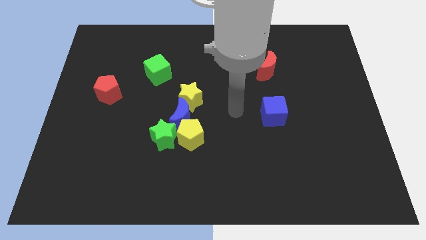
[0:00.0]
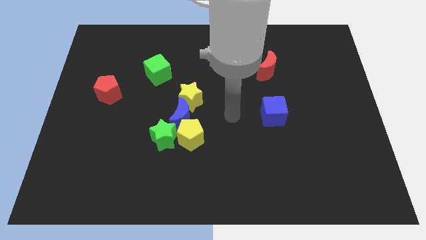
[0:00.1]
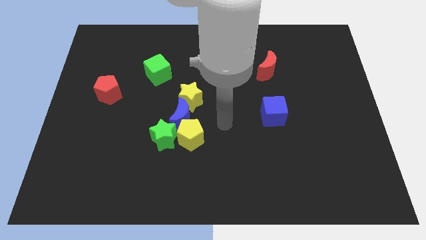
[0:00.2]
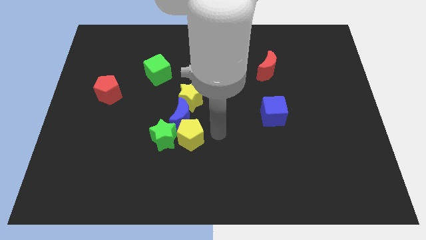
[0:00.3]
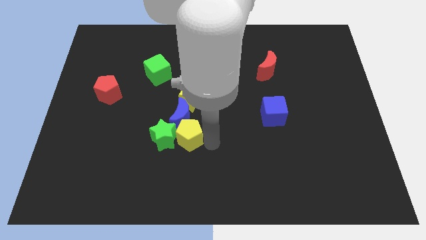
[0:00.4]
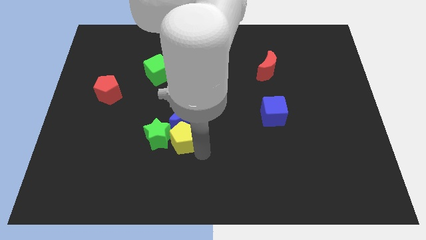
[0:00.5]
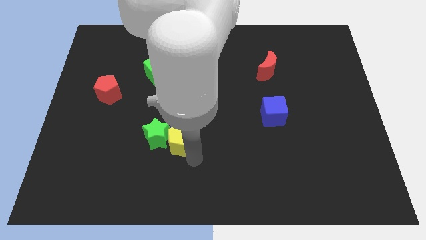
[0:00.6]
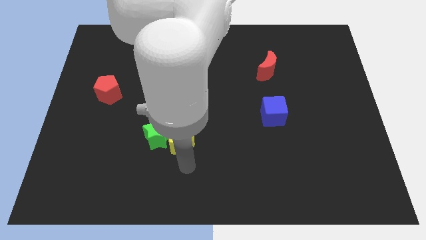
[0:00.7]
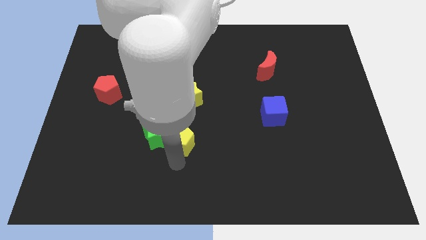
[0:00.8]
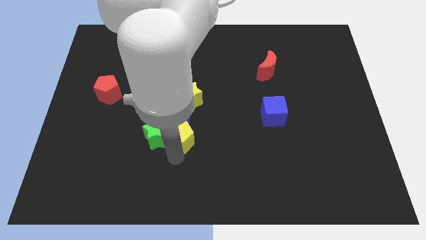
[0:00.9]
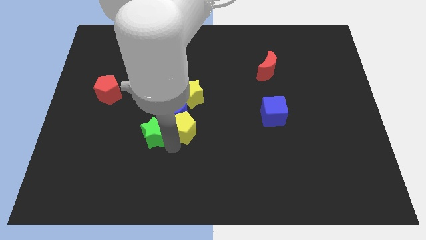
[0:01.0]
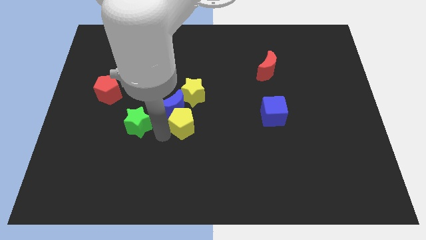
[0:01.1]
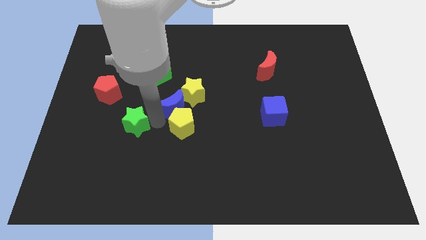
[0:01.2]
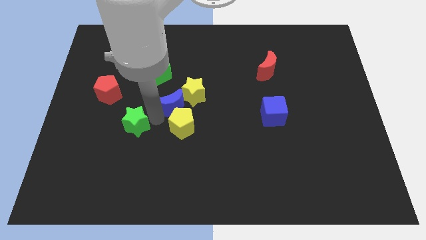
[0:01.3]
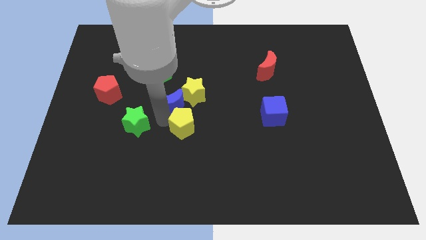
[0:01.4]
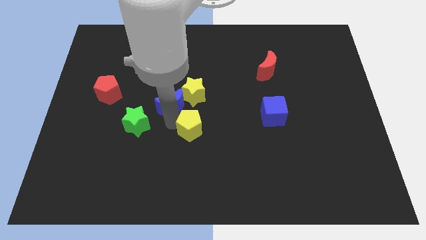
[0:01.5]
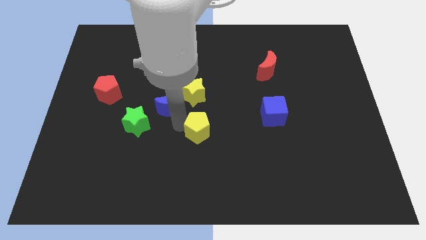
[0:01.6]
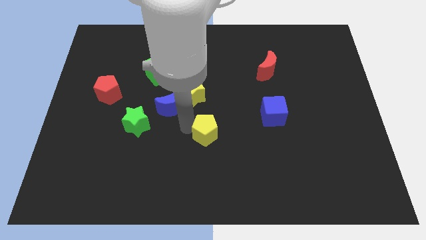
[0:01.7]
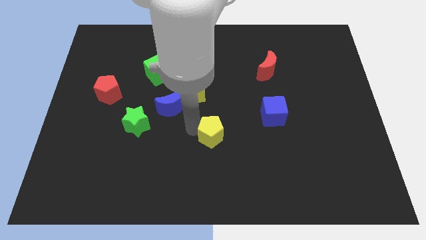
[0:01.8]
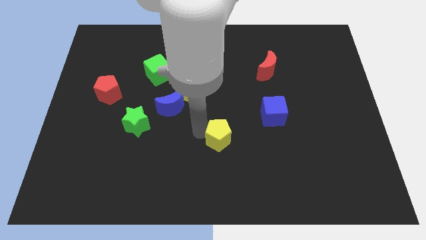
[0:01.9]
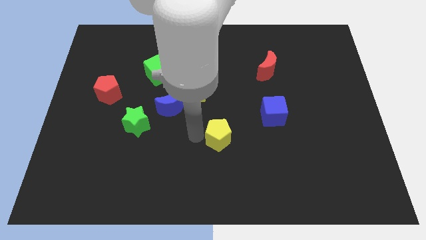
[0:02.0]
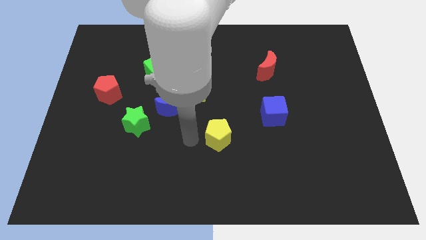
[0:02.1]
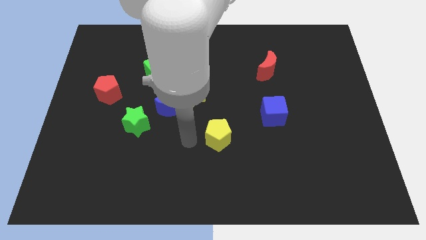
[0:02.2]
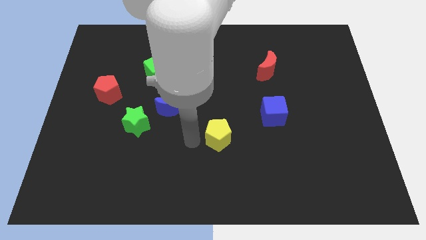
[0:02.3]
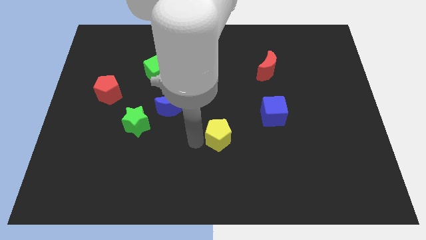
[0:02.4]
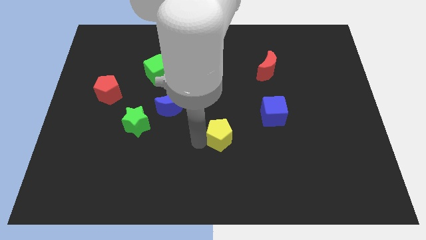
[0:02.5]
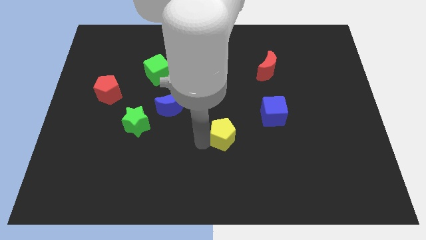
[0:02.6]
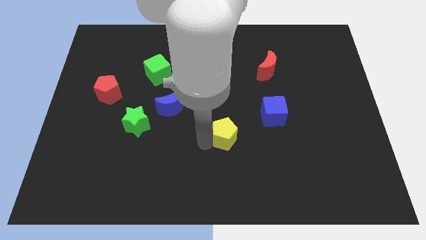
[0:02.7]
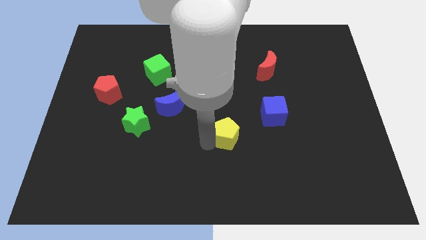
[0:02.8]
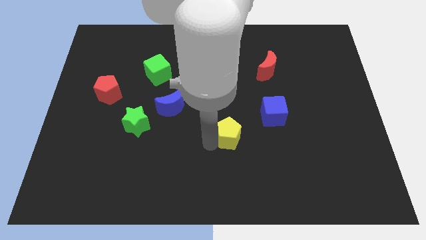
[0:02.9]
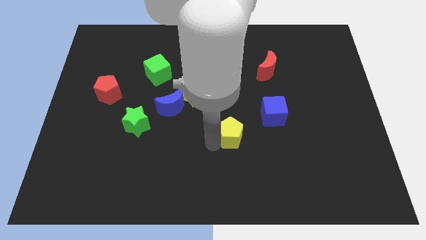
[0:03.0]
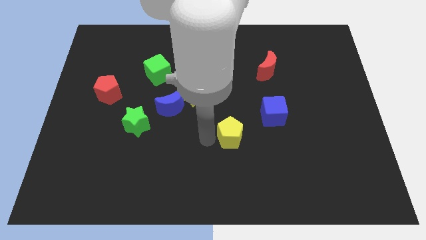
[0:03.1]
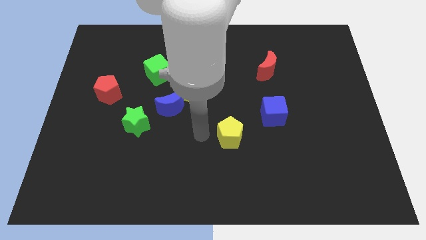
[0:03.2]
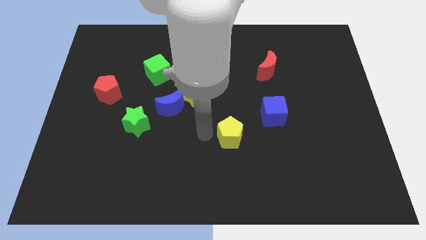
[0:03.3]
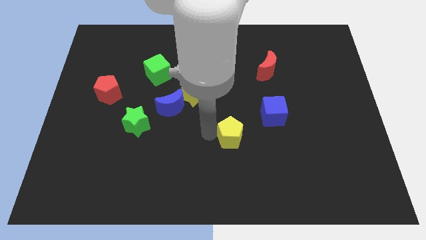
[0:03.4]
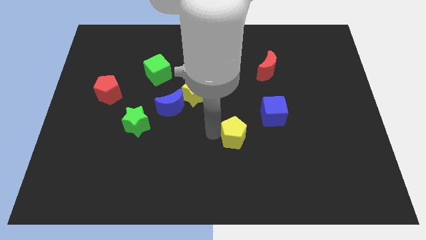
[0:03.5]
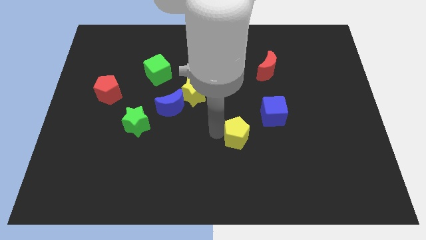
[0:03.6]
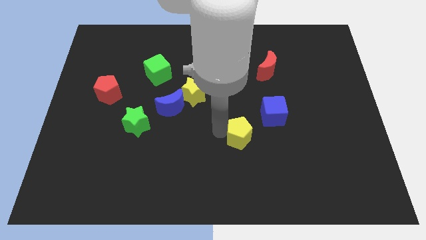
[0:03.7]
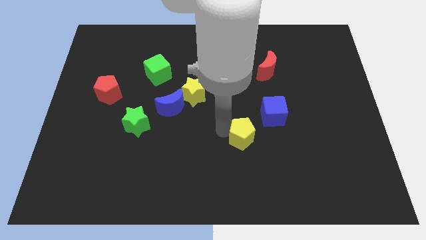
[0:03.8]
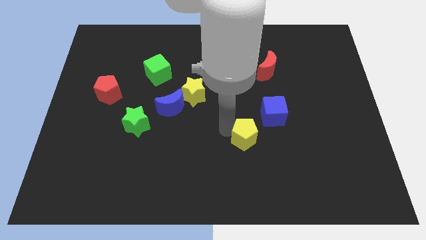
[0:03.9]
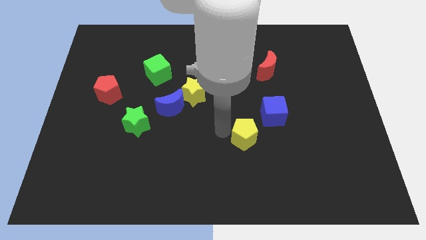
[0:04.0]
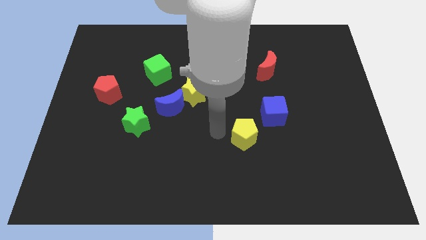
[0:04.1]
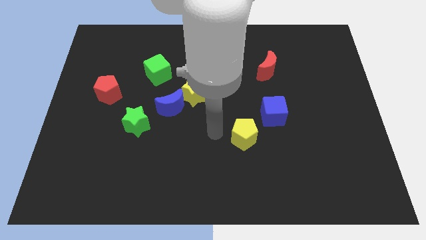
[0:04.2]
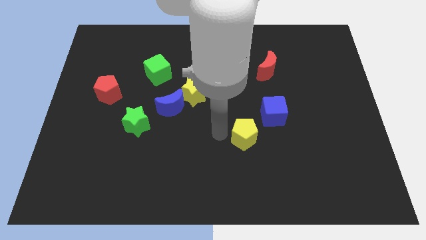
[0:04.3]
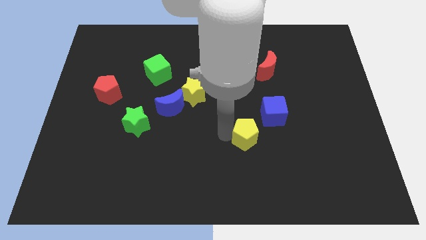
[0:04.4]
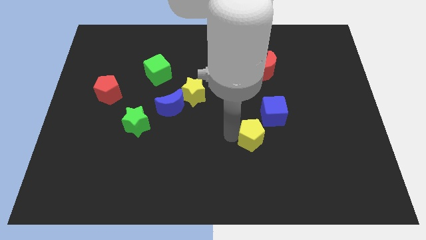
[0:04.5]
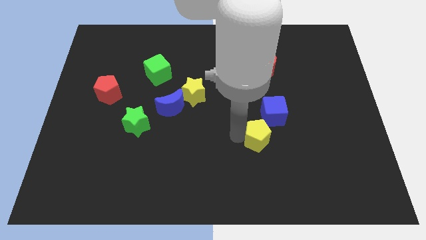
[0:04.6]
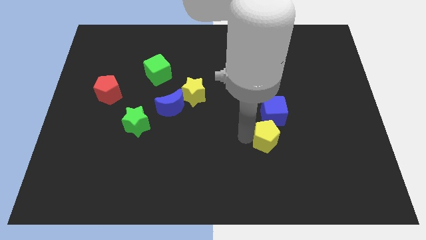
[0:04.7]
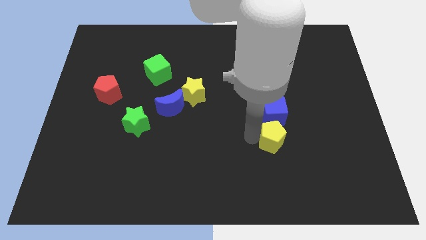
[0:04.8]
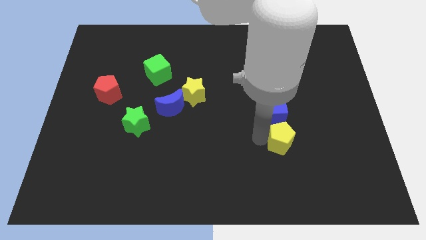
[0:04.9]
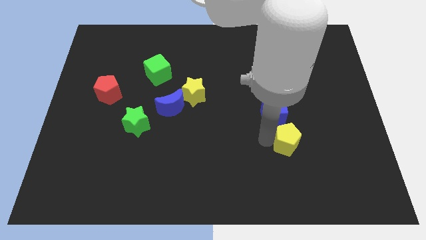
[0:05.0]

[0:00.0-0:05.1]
push the yellow pentagon to the right

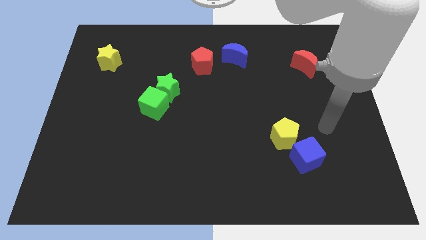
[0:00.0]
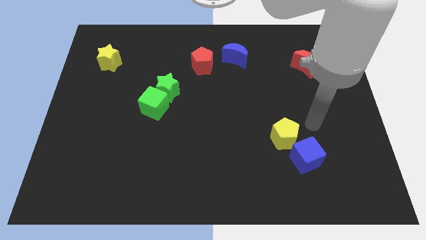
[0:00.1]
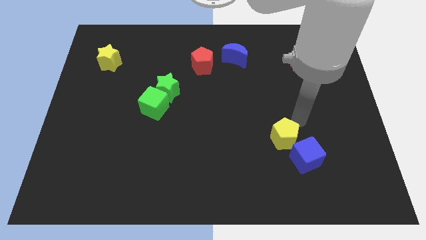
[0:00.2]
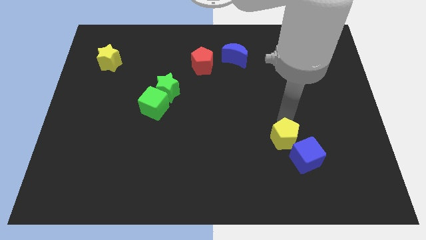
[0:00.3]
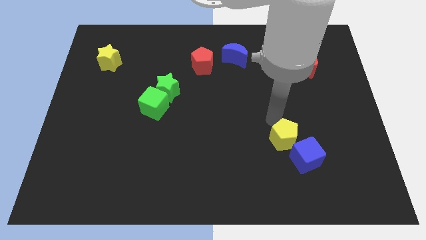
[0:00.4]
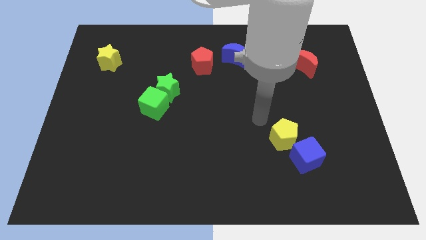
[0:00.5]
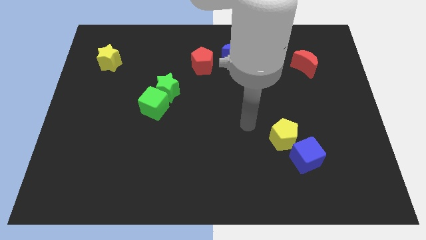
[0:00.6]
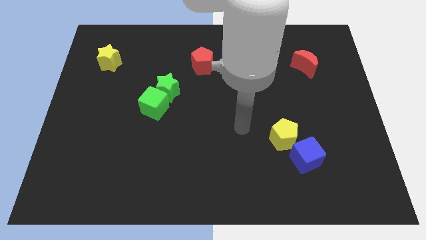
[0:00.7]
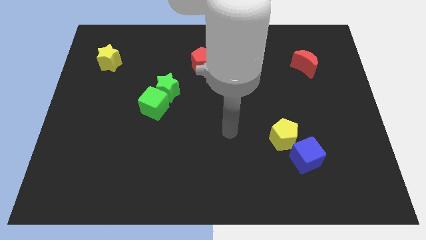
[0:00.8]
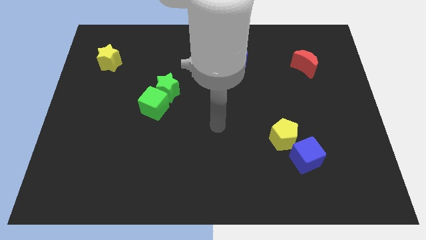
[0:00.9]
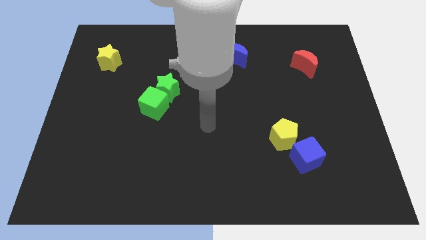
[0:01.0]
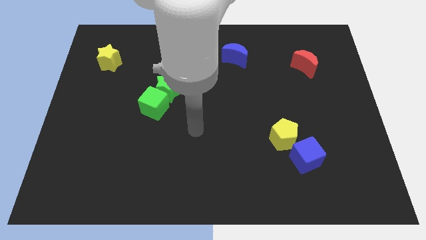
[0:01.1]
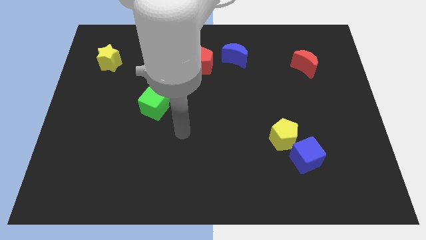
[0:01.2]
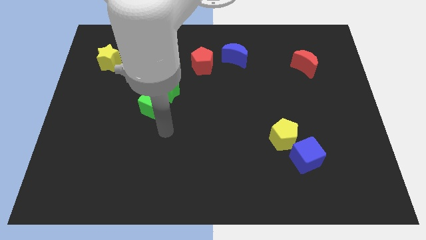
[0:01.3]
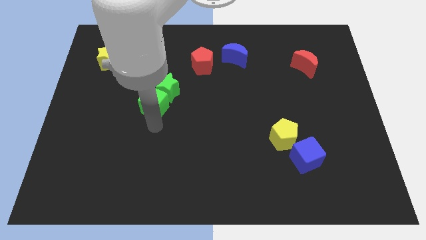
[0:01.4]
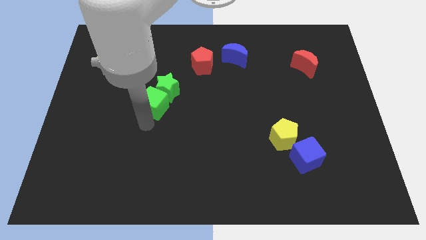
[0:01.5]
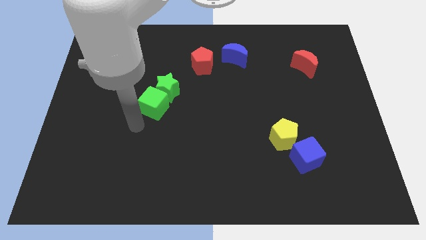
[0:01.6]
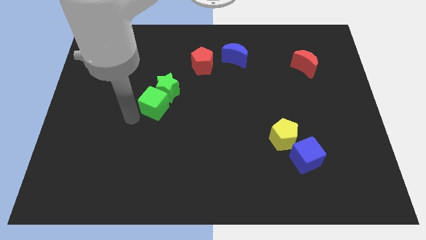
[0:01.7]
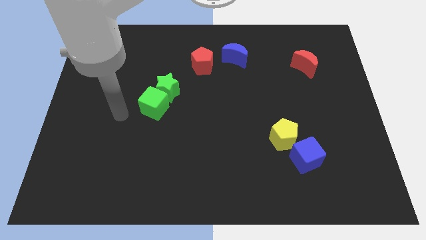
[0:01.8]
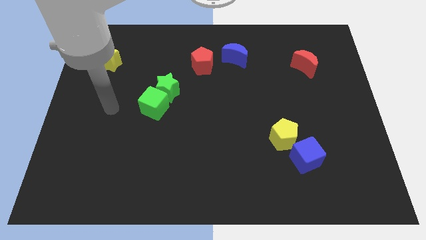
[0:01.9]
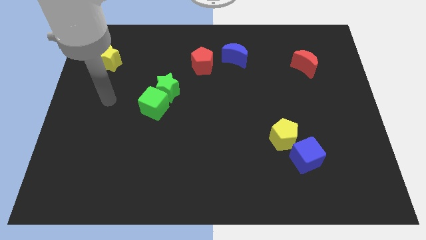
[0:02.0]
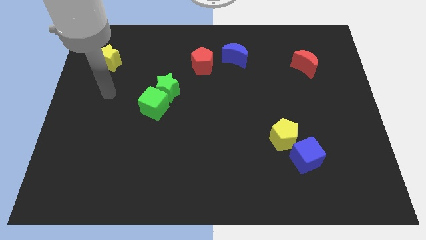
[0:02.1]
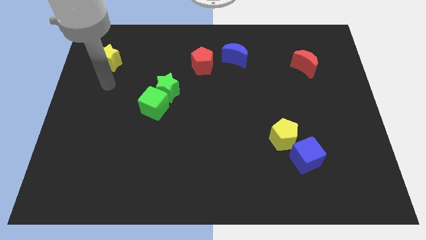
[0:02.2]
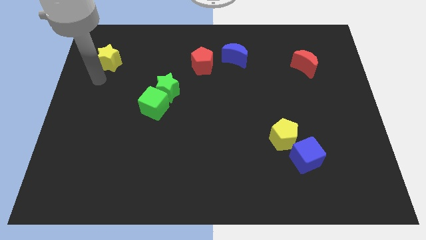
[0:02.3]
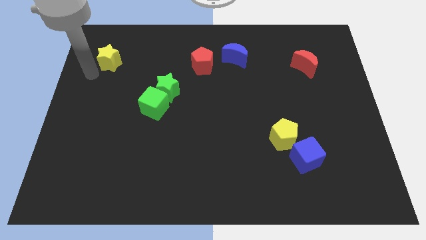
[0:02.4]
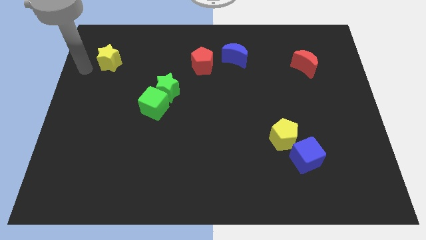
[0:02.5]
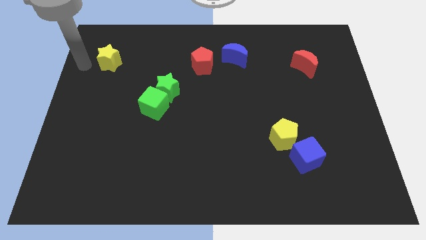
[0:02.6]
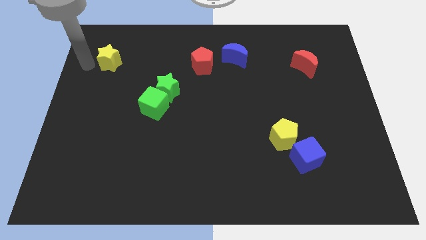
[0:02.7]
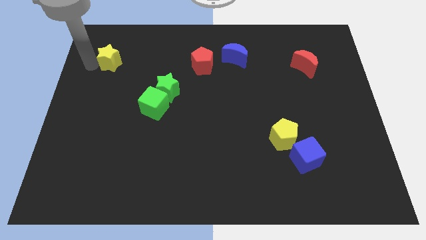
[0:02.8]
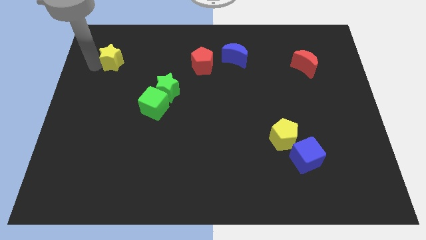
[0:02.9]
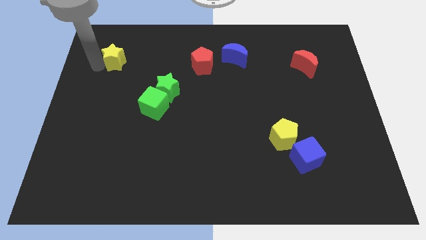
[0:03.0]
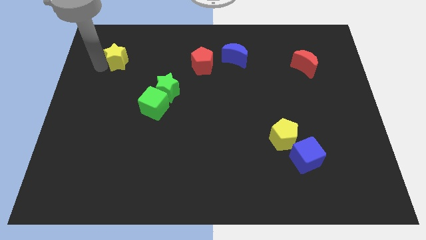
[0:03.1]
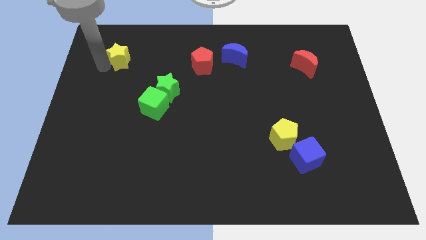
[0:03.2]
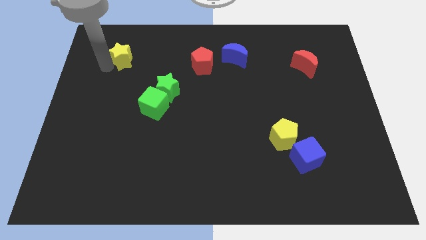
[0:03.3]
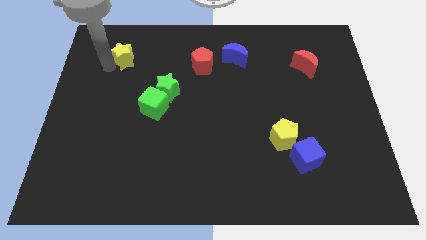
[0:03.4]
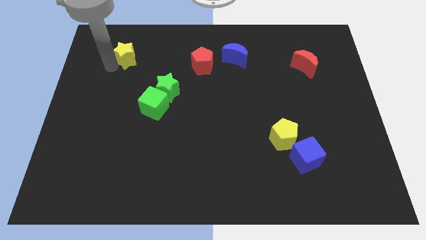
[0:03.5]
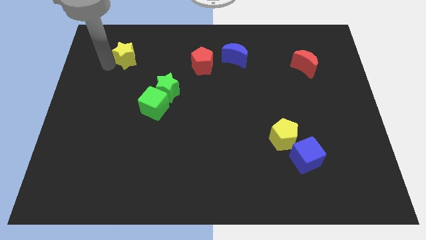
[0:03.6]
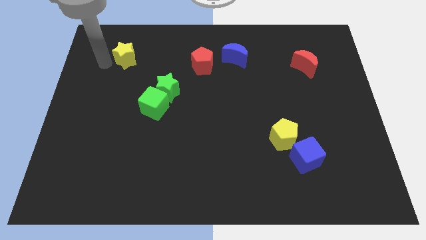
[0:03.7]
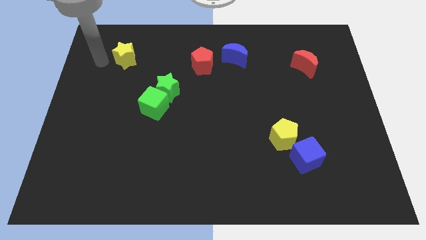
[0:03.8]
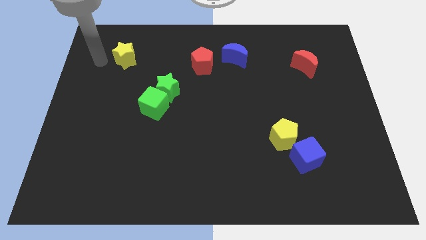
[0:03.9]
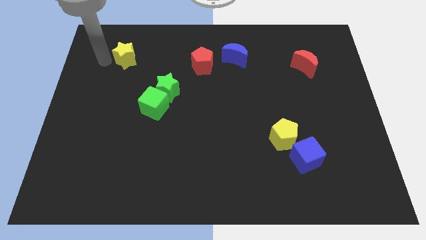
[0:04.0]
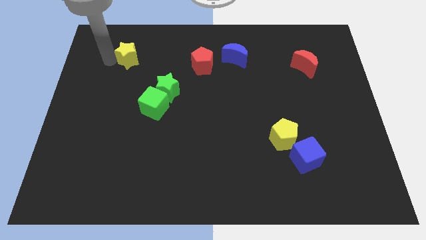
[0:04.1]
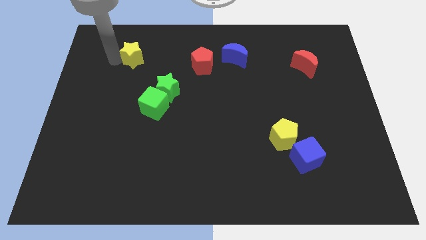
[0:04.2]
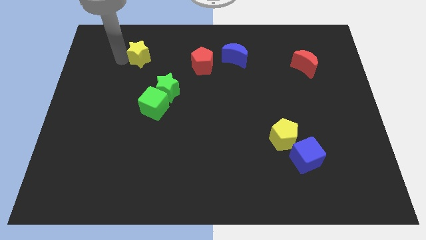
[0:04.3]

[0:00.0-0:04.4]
slide the yellow star slightly to the right
